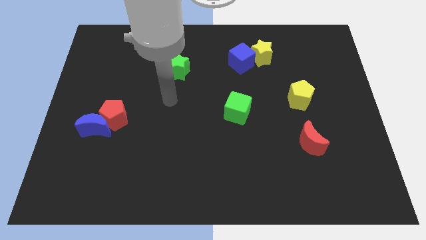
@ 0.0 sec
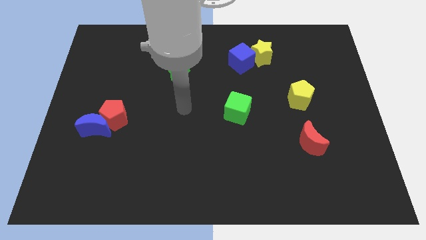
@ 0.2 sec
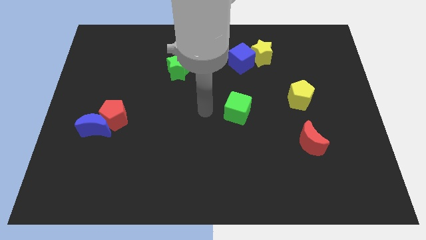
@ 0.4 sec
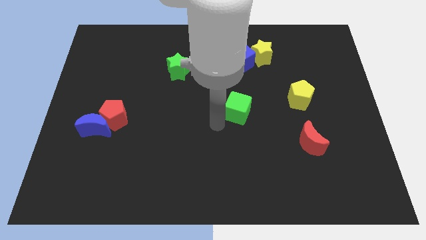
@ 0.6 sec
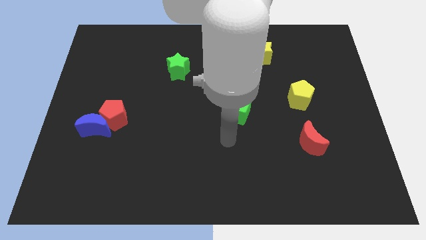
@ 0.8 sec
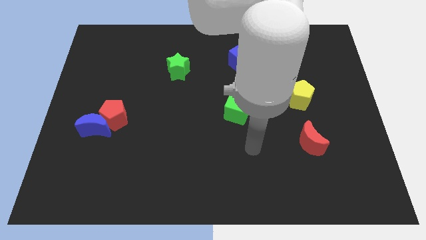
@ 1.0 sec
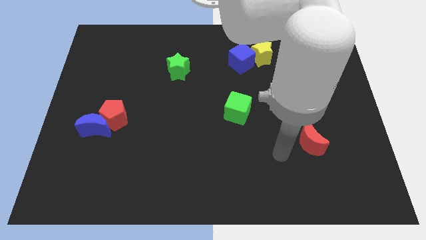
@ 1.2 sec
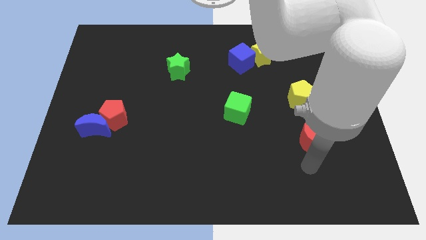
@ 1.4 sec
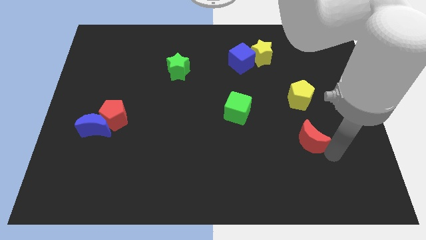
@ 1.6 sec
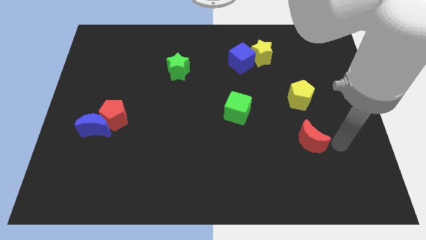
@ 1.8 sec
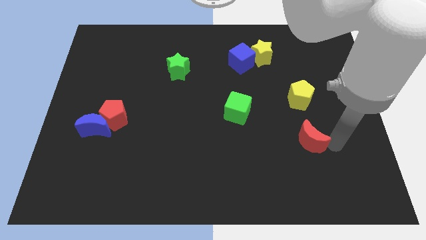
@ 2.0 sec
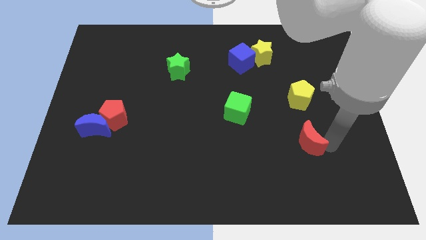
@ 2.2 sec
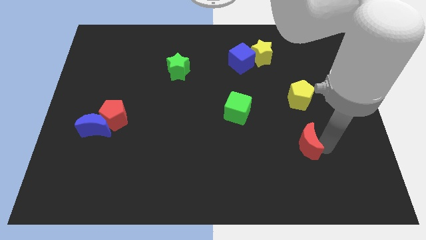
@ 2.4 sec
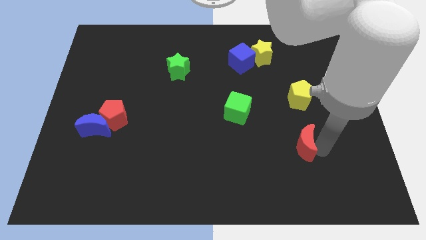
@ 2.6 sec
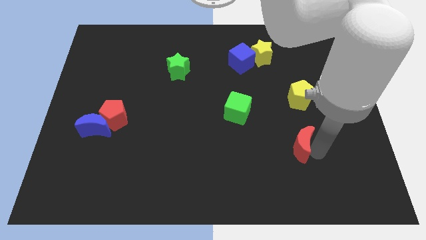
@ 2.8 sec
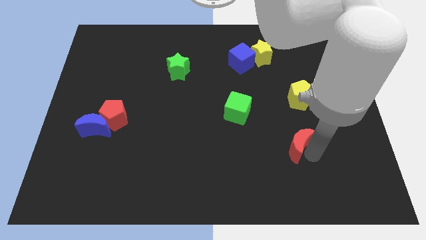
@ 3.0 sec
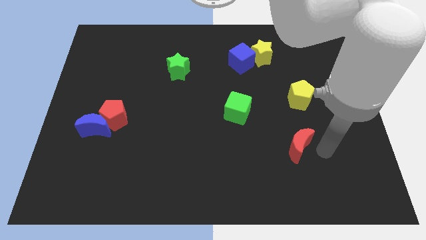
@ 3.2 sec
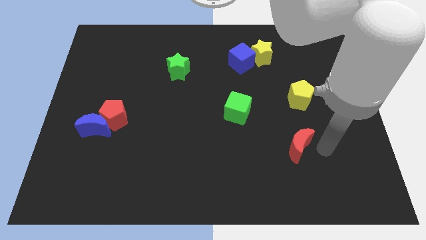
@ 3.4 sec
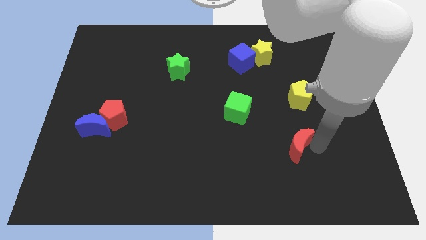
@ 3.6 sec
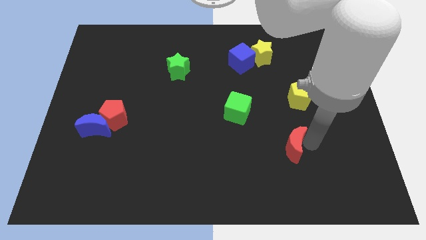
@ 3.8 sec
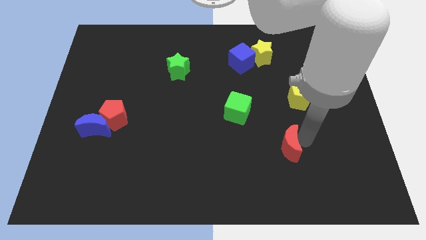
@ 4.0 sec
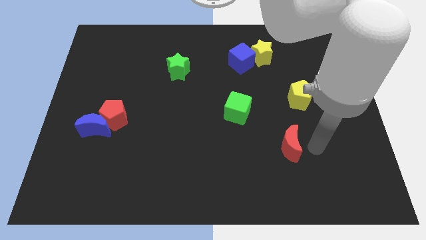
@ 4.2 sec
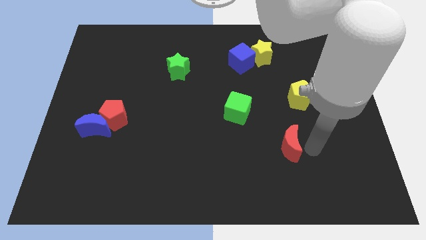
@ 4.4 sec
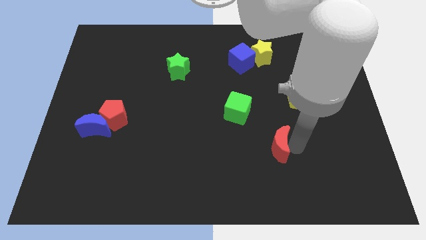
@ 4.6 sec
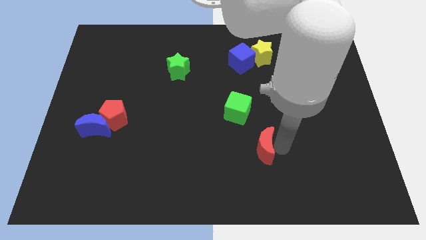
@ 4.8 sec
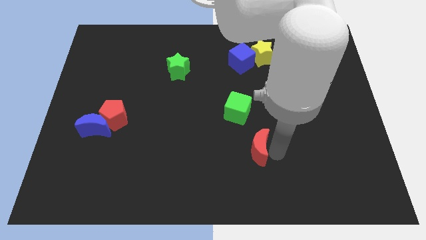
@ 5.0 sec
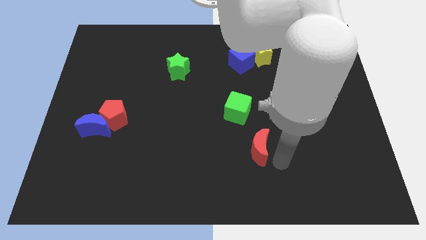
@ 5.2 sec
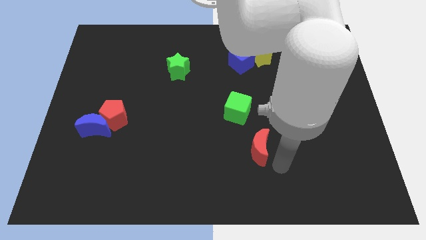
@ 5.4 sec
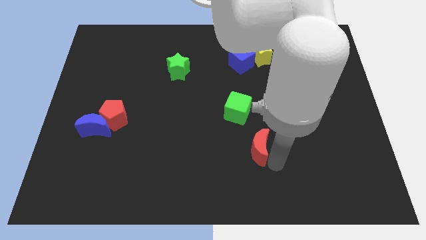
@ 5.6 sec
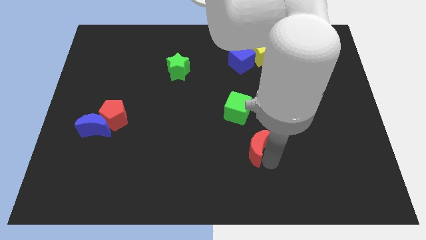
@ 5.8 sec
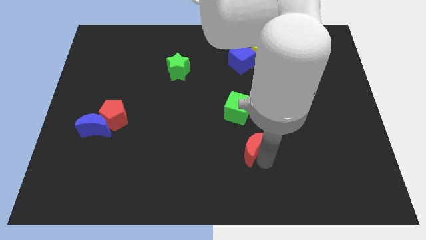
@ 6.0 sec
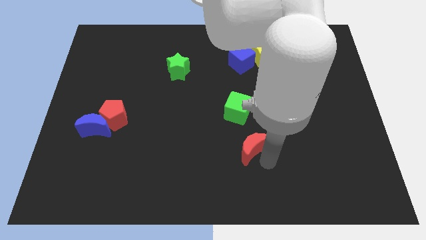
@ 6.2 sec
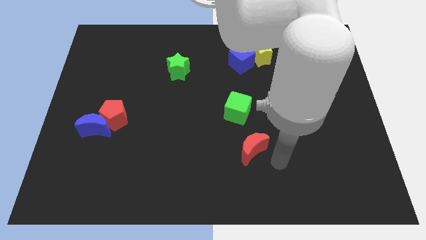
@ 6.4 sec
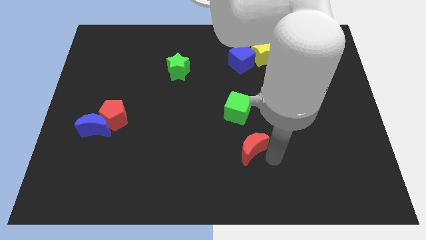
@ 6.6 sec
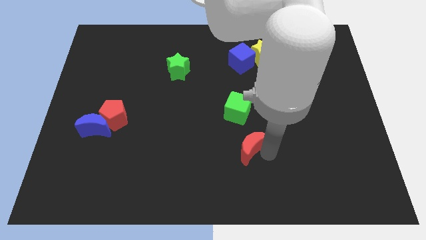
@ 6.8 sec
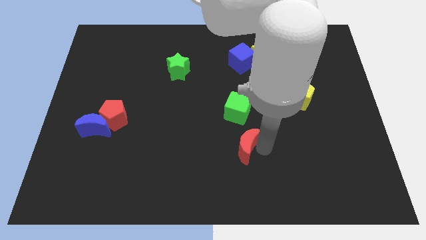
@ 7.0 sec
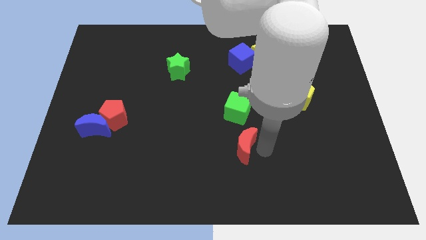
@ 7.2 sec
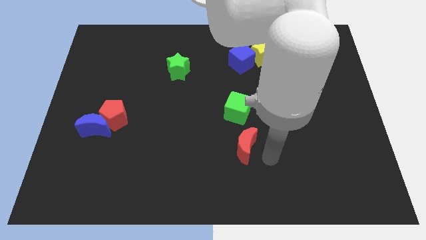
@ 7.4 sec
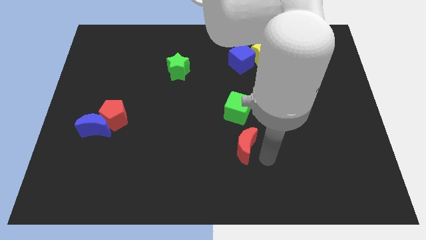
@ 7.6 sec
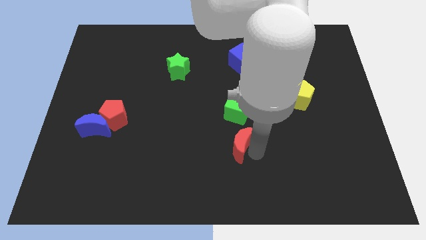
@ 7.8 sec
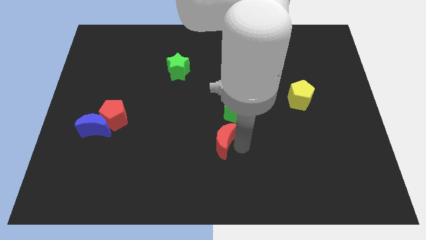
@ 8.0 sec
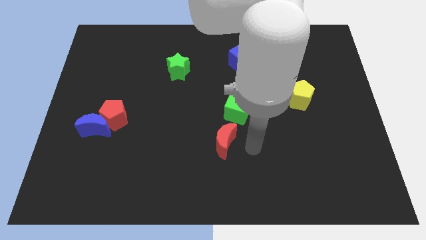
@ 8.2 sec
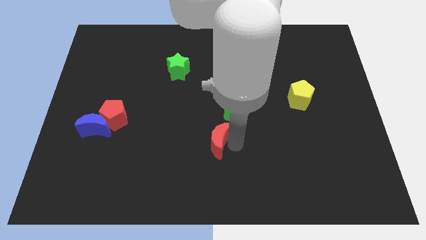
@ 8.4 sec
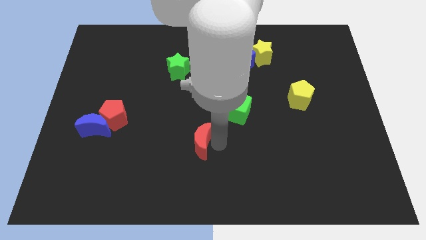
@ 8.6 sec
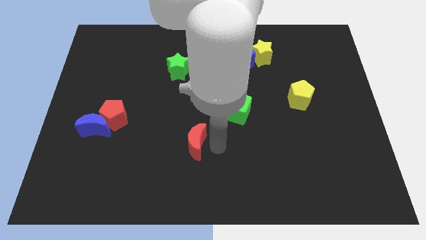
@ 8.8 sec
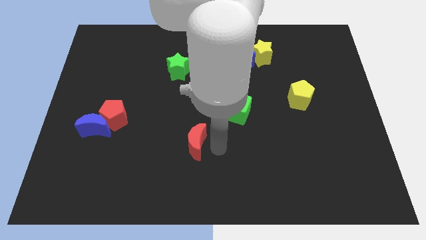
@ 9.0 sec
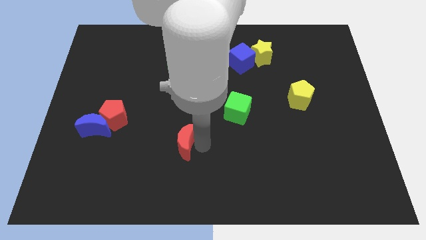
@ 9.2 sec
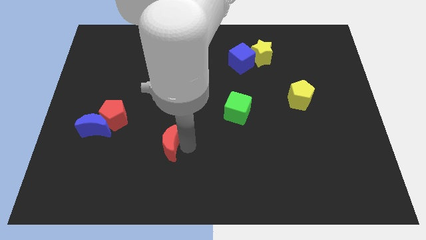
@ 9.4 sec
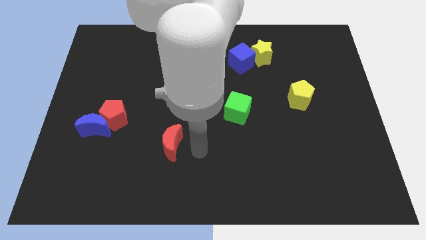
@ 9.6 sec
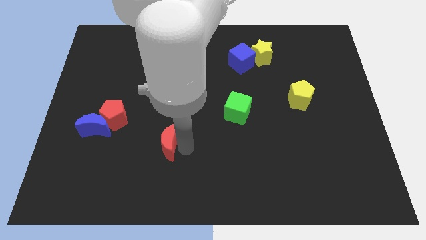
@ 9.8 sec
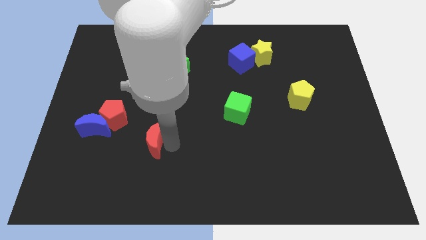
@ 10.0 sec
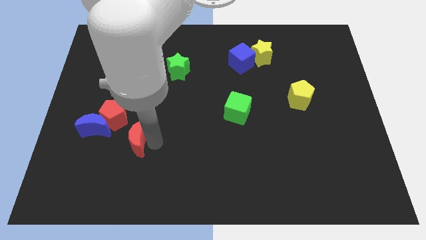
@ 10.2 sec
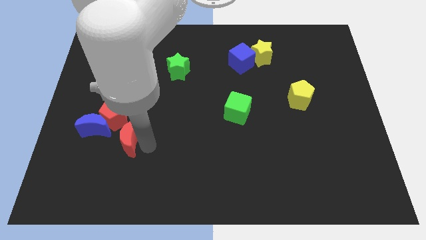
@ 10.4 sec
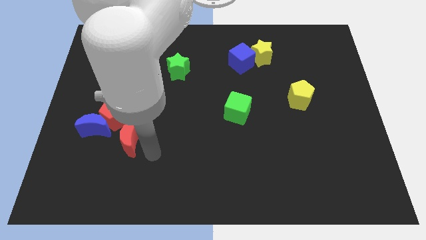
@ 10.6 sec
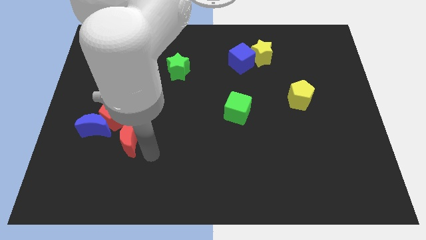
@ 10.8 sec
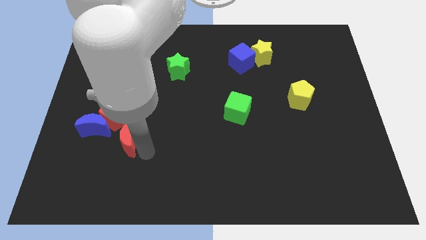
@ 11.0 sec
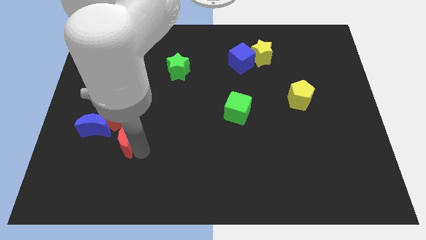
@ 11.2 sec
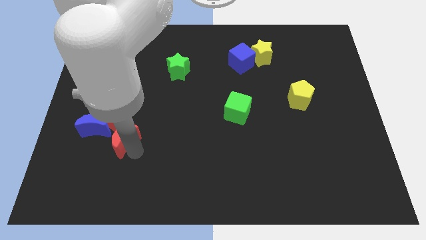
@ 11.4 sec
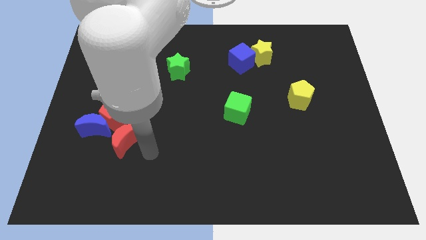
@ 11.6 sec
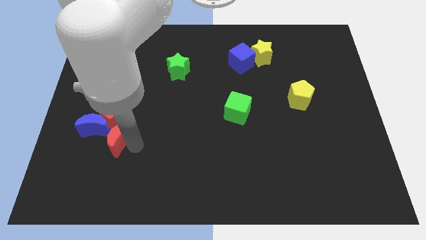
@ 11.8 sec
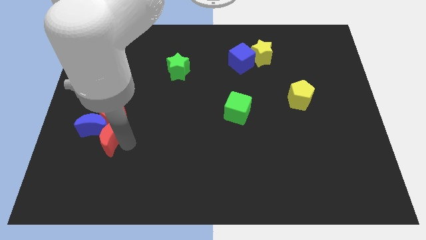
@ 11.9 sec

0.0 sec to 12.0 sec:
move the red moon to the blue moon

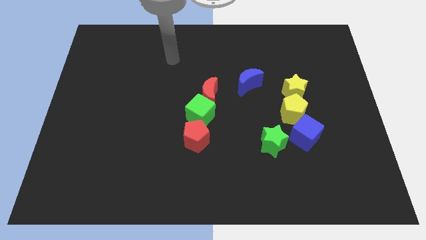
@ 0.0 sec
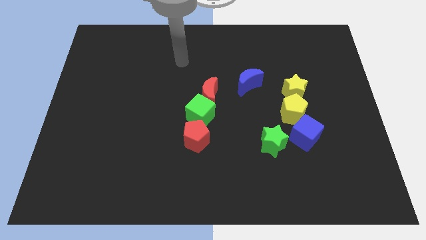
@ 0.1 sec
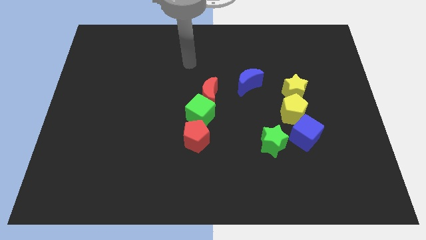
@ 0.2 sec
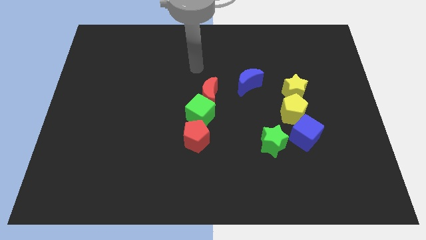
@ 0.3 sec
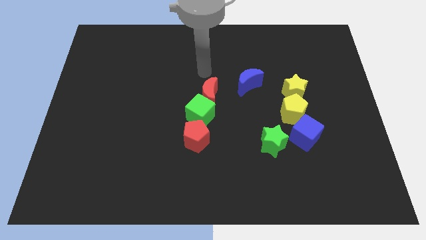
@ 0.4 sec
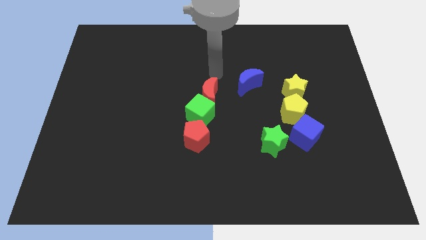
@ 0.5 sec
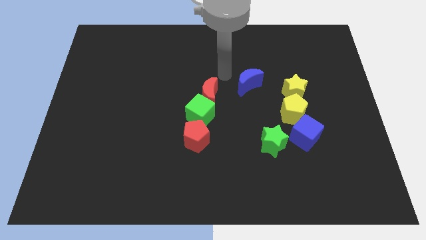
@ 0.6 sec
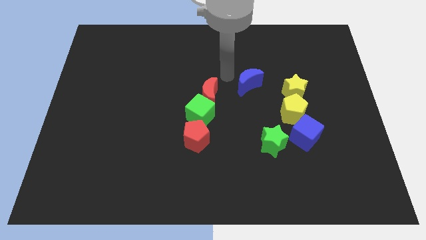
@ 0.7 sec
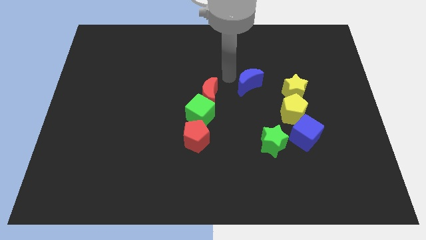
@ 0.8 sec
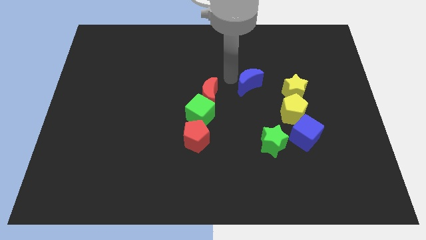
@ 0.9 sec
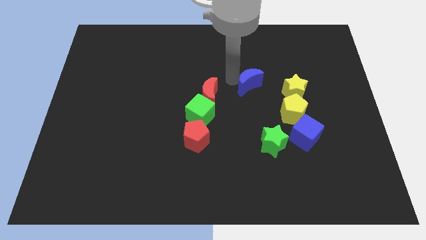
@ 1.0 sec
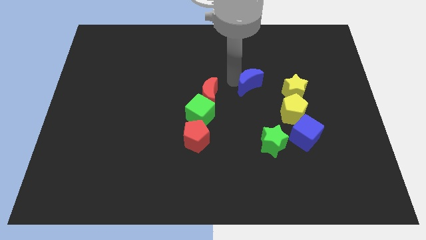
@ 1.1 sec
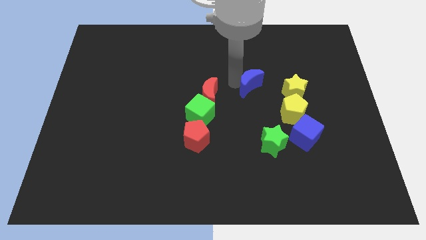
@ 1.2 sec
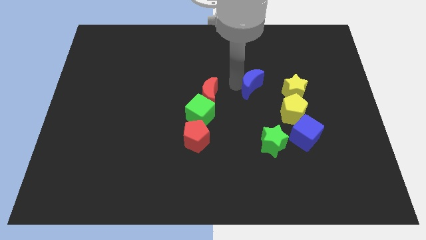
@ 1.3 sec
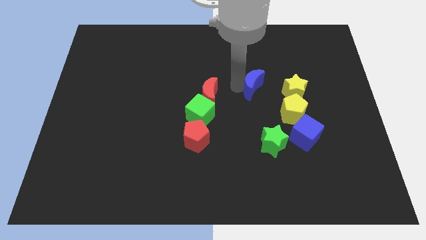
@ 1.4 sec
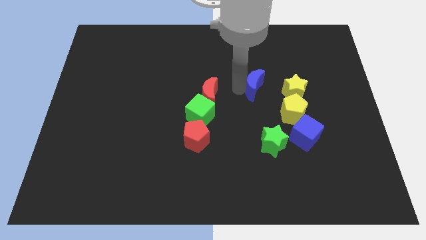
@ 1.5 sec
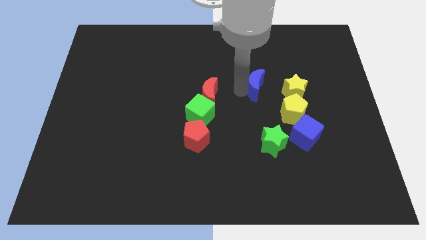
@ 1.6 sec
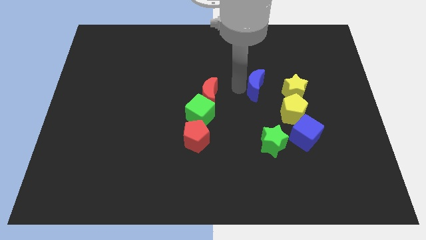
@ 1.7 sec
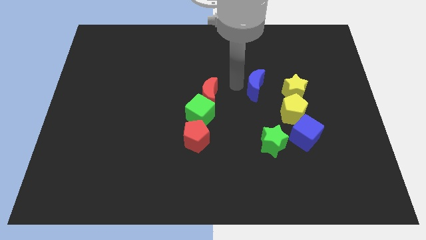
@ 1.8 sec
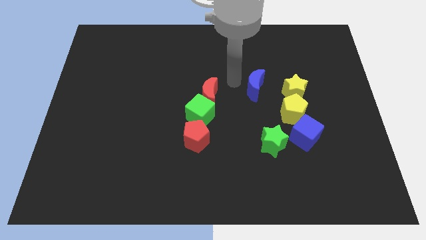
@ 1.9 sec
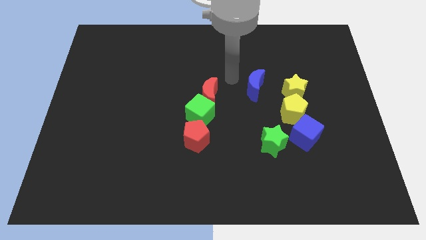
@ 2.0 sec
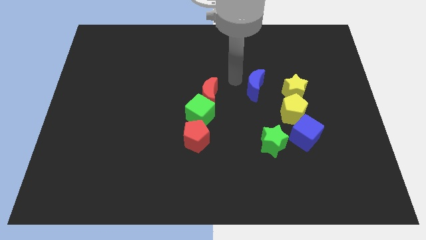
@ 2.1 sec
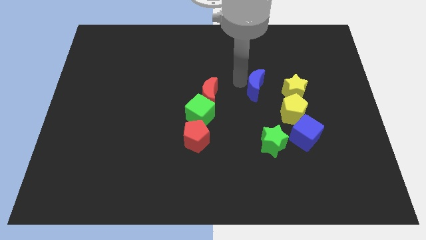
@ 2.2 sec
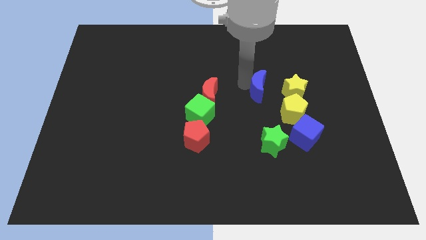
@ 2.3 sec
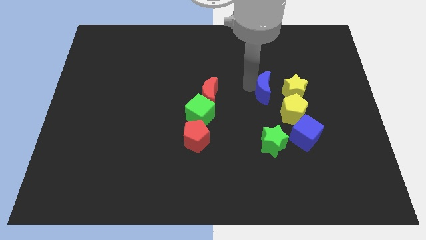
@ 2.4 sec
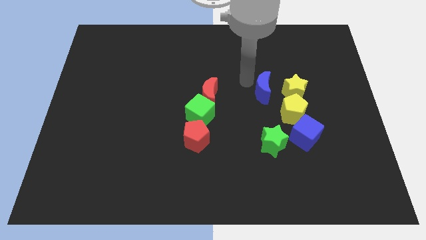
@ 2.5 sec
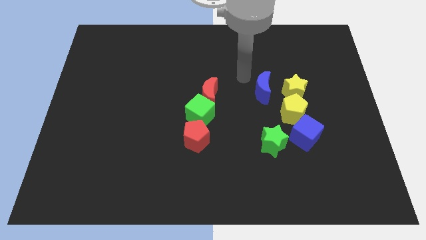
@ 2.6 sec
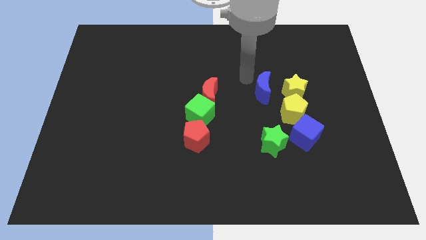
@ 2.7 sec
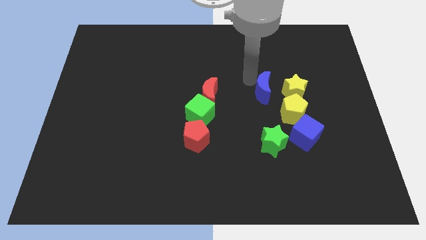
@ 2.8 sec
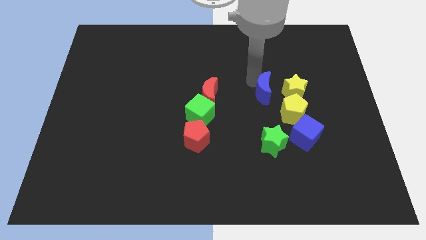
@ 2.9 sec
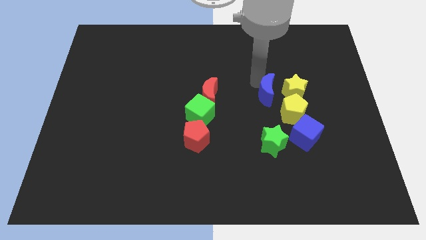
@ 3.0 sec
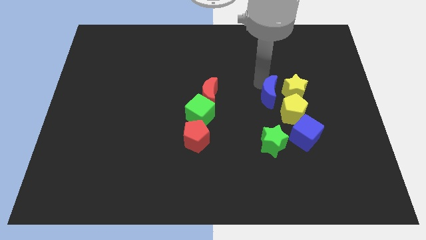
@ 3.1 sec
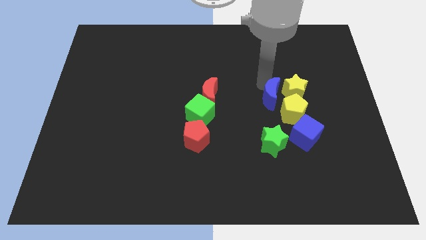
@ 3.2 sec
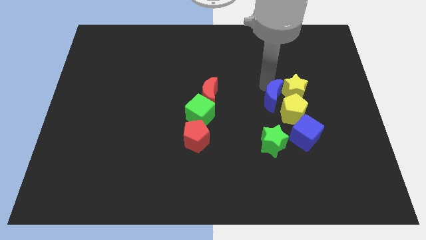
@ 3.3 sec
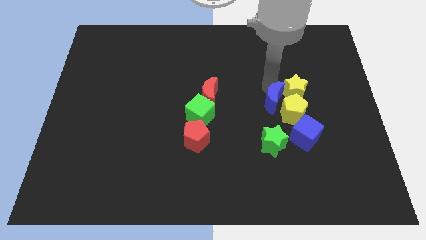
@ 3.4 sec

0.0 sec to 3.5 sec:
put the blue moon towards the yellow pentagon
